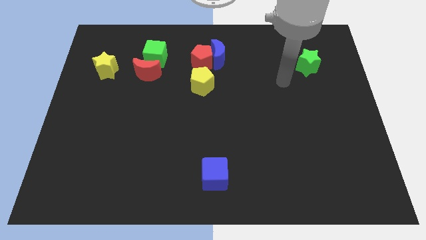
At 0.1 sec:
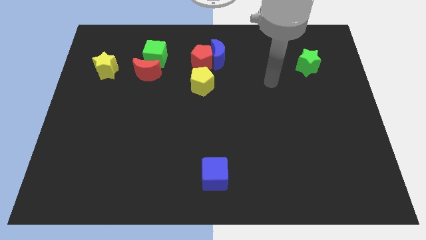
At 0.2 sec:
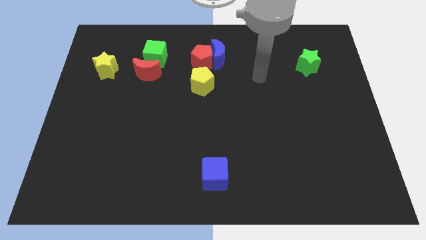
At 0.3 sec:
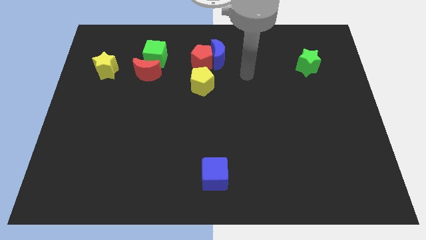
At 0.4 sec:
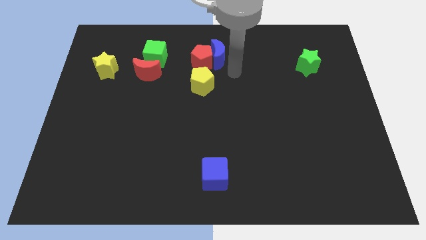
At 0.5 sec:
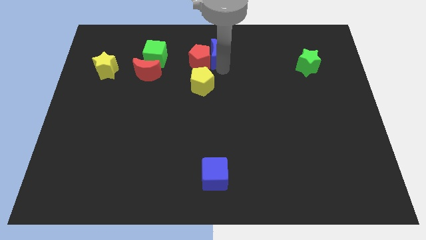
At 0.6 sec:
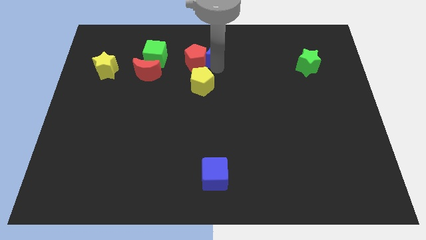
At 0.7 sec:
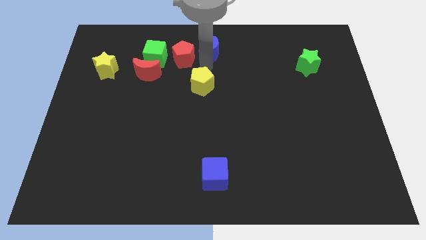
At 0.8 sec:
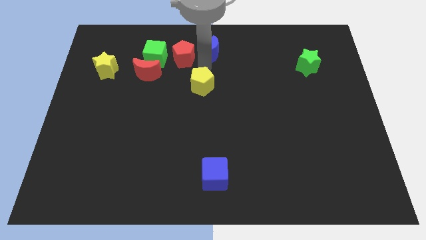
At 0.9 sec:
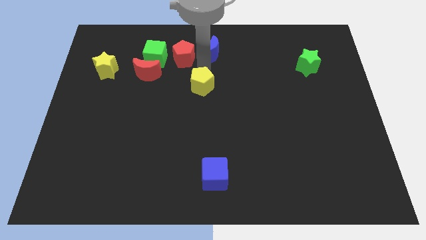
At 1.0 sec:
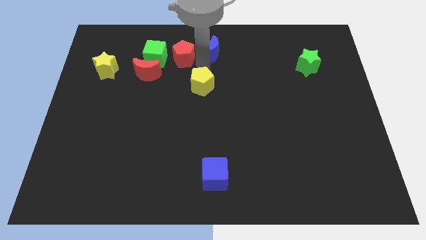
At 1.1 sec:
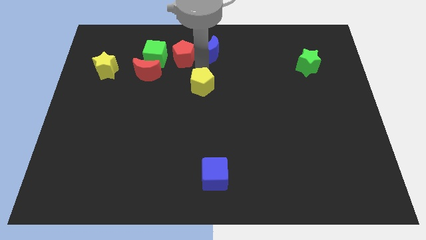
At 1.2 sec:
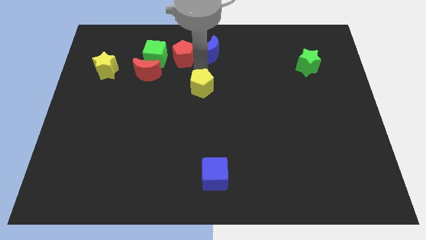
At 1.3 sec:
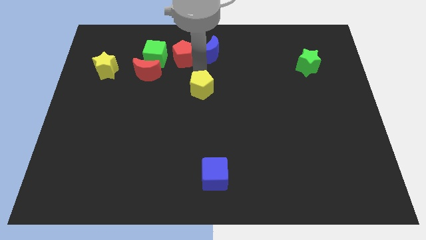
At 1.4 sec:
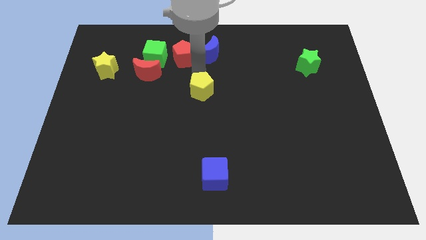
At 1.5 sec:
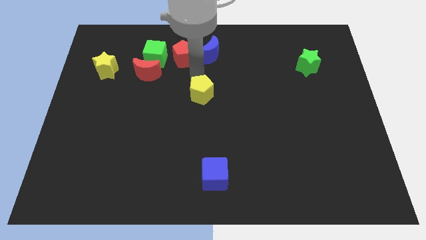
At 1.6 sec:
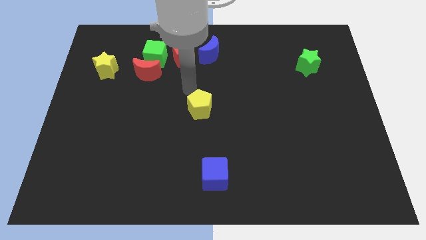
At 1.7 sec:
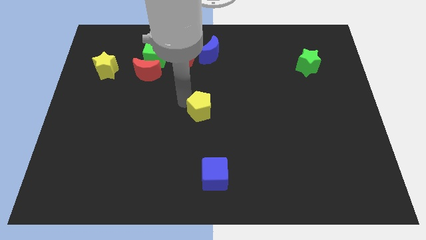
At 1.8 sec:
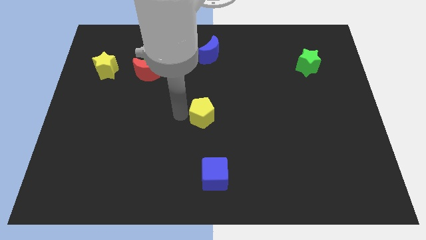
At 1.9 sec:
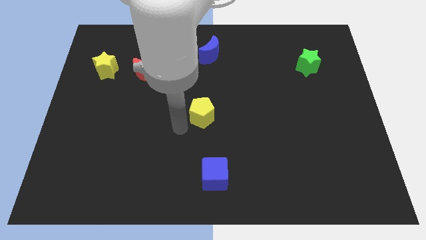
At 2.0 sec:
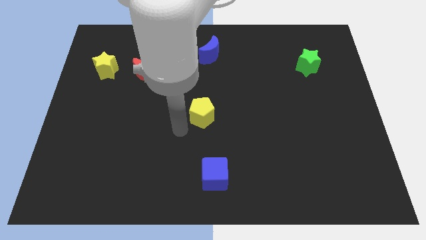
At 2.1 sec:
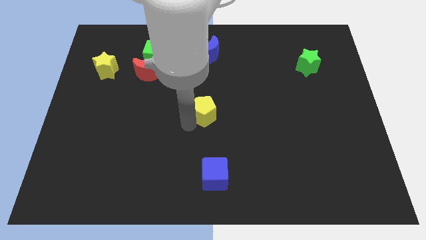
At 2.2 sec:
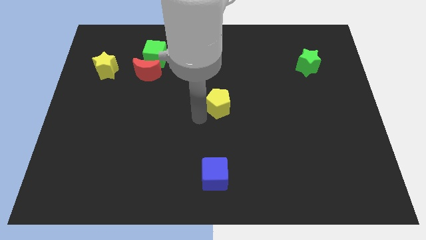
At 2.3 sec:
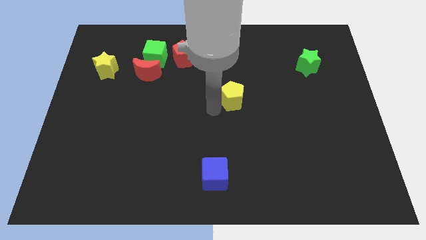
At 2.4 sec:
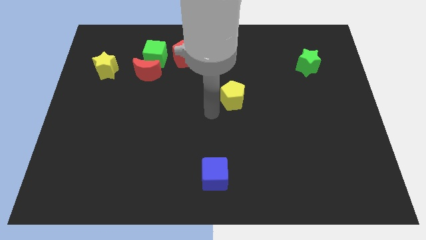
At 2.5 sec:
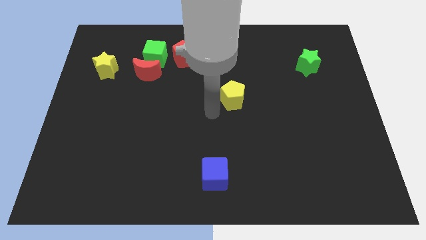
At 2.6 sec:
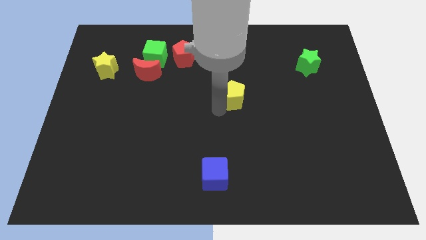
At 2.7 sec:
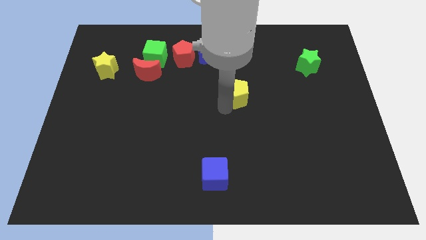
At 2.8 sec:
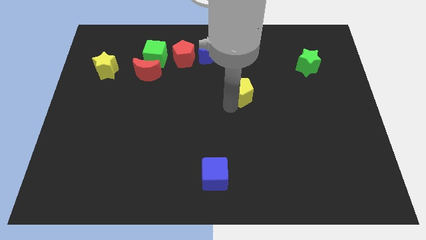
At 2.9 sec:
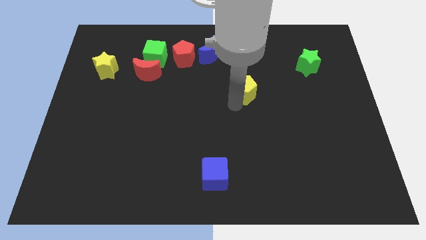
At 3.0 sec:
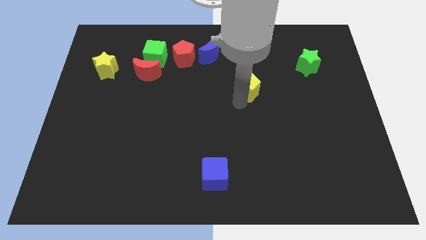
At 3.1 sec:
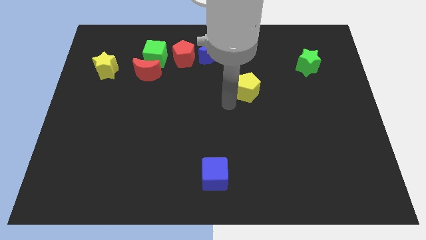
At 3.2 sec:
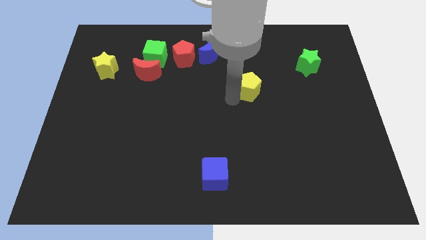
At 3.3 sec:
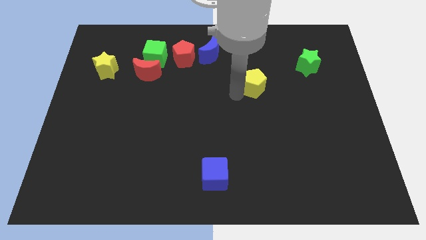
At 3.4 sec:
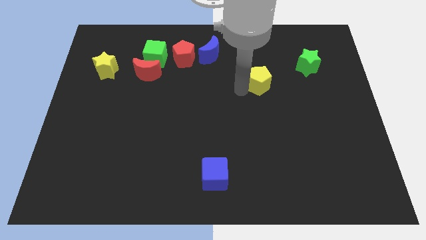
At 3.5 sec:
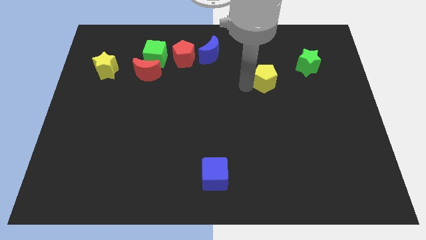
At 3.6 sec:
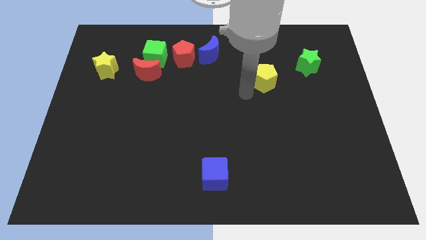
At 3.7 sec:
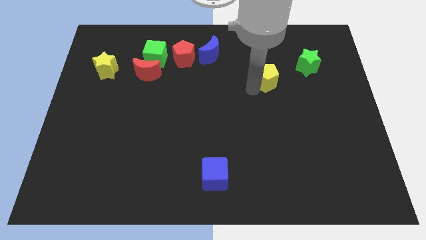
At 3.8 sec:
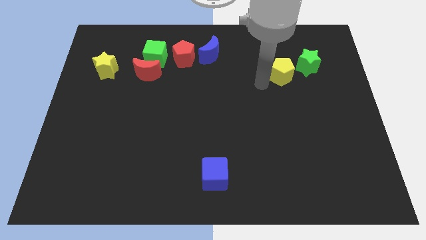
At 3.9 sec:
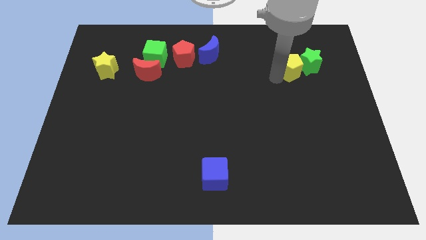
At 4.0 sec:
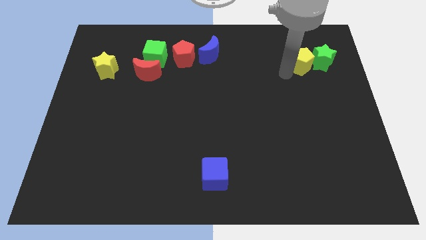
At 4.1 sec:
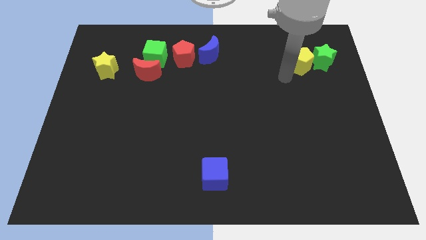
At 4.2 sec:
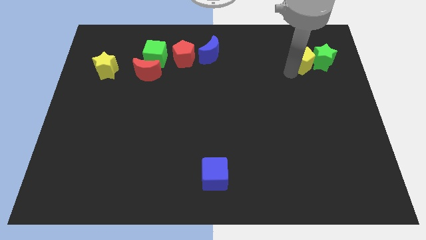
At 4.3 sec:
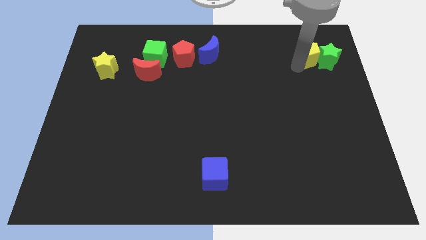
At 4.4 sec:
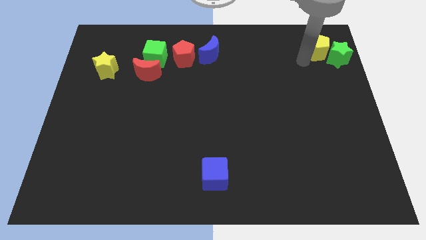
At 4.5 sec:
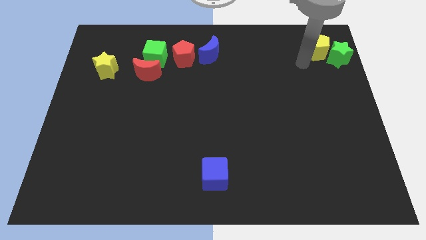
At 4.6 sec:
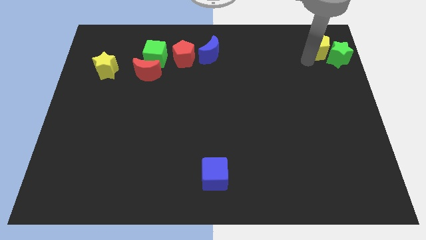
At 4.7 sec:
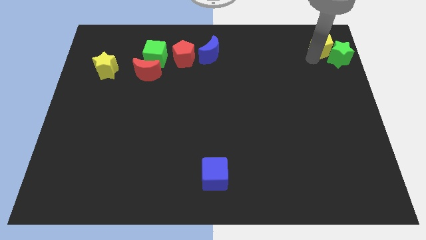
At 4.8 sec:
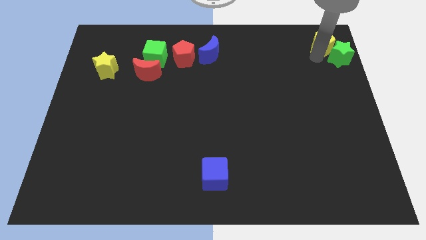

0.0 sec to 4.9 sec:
push the yellow pentagon to the top right of the board

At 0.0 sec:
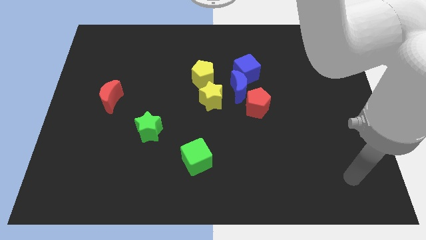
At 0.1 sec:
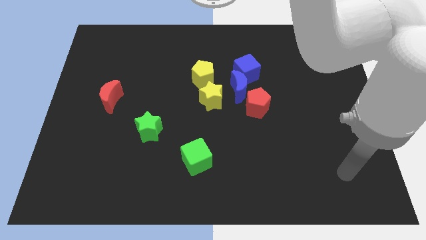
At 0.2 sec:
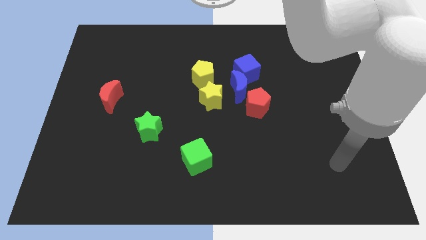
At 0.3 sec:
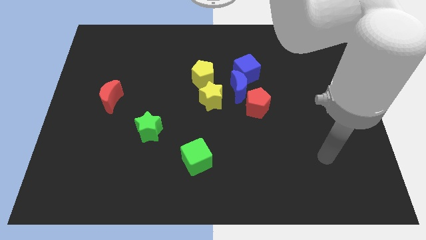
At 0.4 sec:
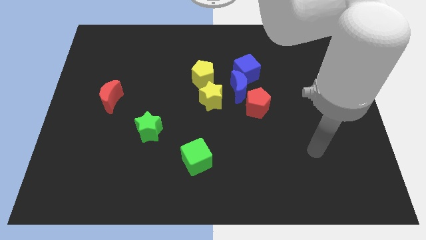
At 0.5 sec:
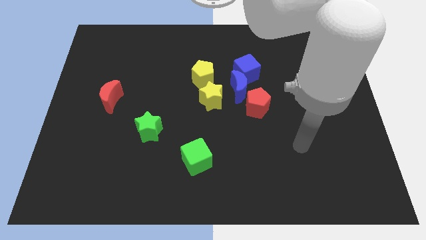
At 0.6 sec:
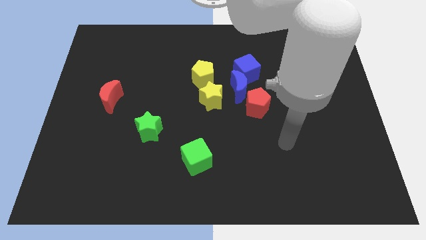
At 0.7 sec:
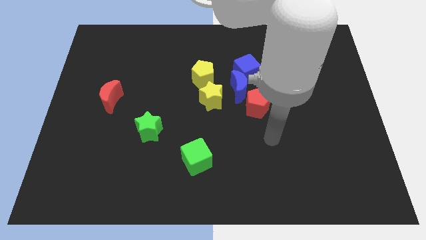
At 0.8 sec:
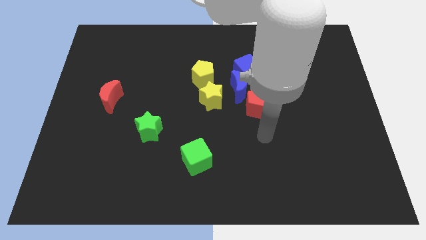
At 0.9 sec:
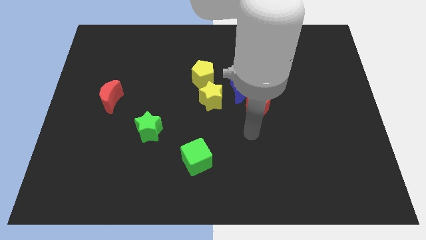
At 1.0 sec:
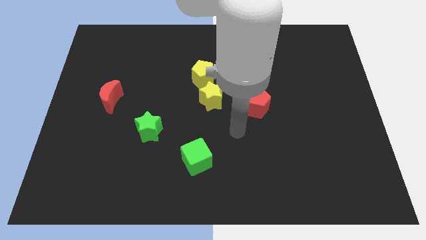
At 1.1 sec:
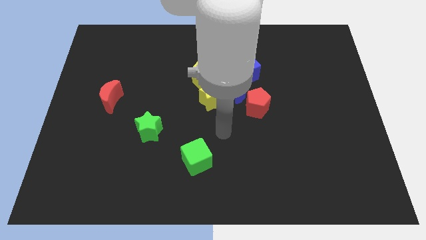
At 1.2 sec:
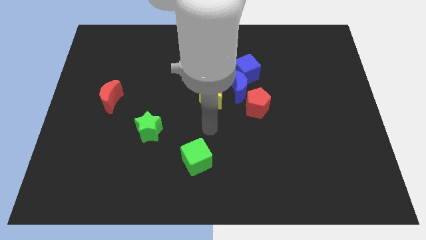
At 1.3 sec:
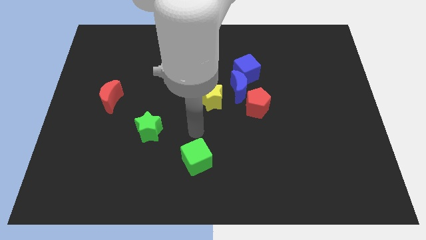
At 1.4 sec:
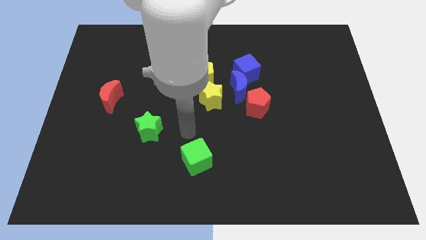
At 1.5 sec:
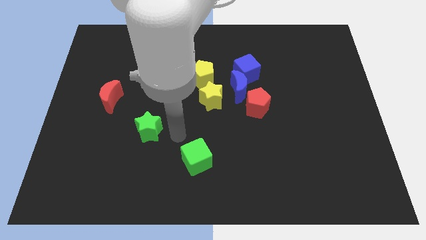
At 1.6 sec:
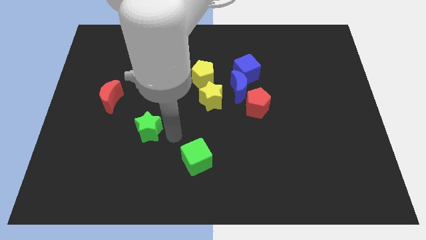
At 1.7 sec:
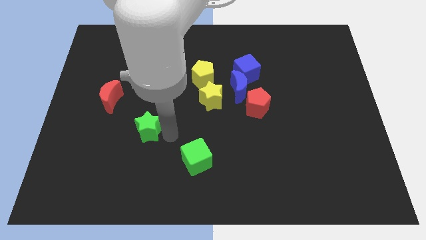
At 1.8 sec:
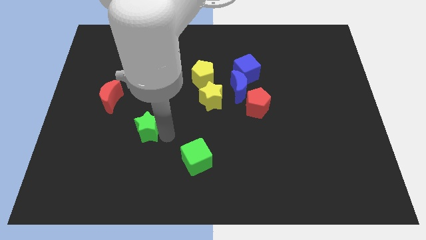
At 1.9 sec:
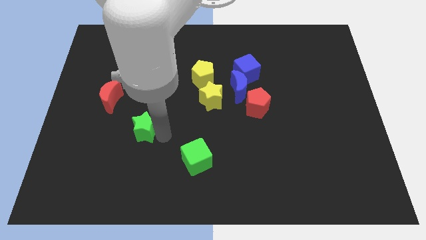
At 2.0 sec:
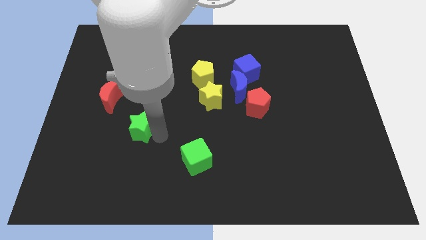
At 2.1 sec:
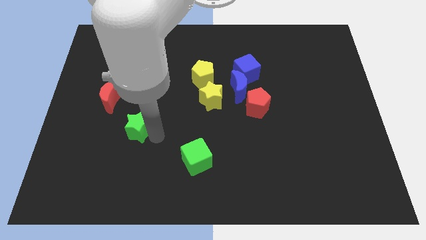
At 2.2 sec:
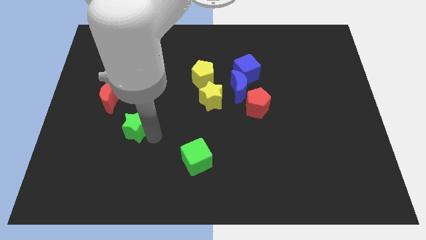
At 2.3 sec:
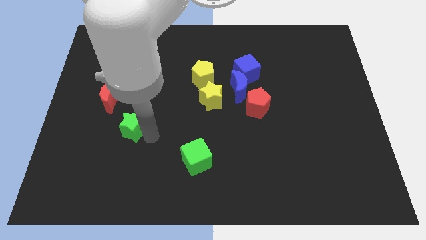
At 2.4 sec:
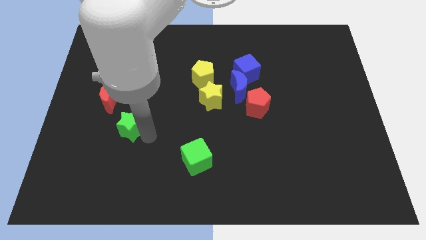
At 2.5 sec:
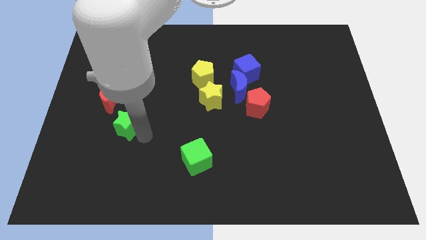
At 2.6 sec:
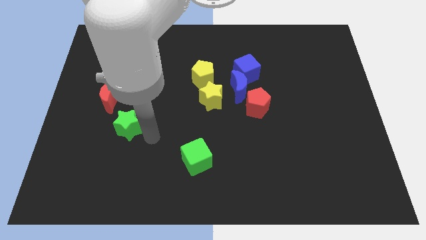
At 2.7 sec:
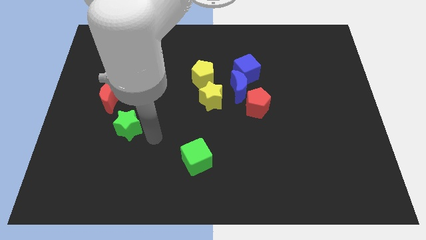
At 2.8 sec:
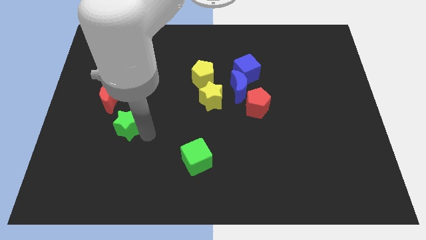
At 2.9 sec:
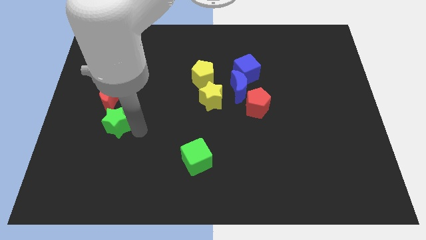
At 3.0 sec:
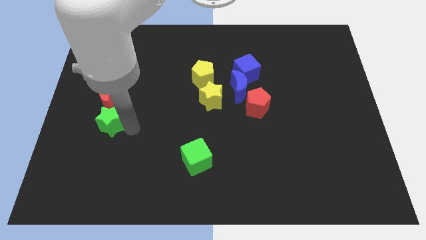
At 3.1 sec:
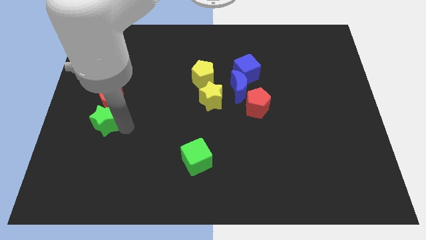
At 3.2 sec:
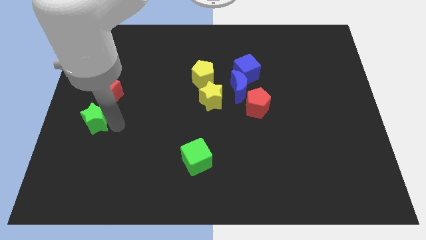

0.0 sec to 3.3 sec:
slide the green star to the left side
